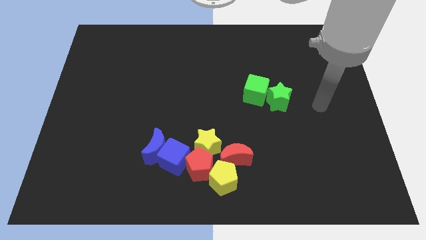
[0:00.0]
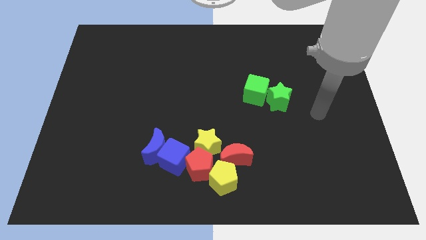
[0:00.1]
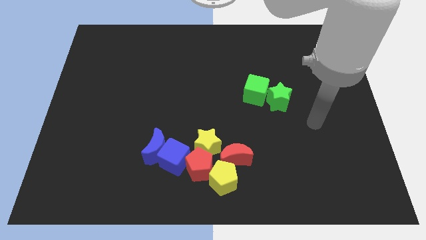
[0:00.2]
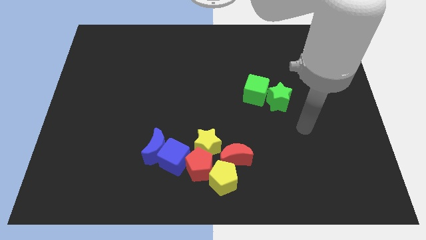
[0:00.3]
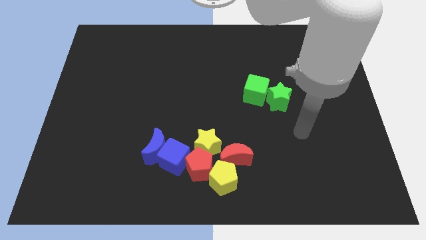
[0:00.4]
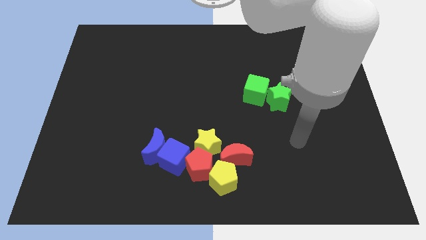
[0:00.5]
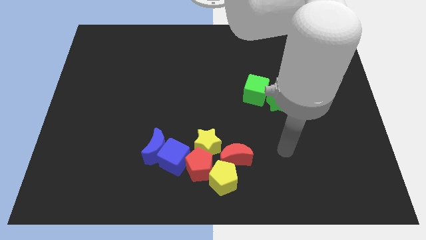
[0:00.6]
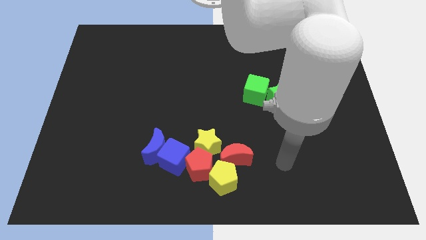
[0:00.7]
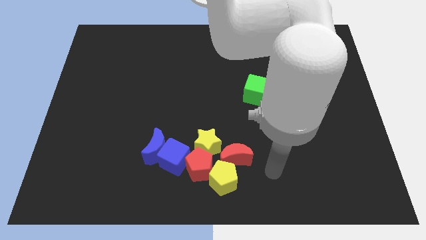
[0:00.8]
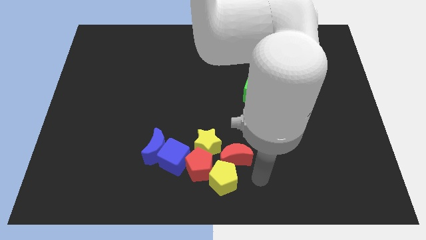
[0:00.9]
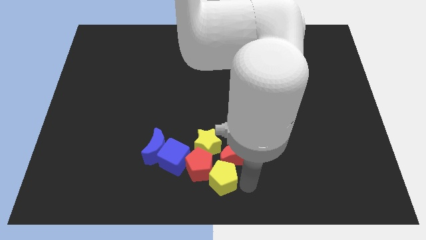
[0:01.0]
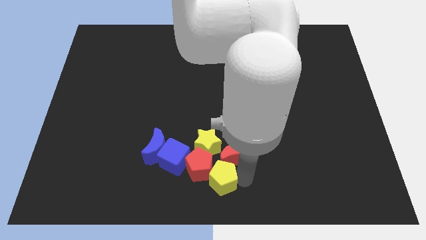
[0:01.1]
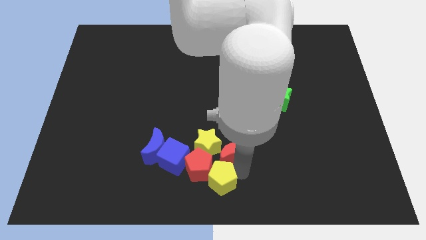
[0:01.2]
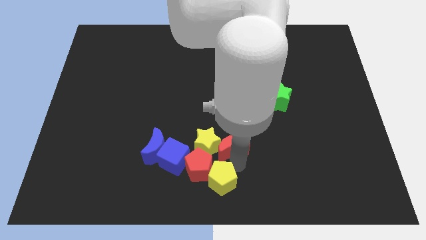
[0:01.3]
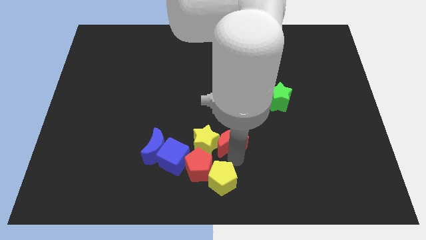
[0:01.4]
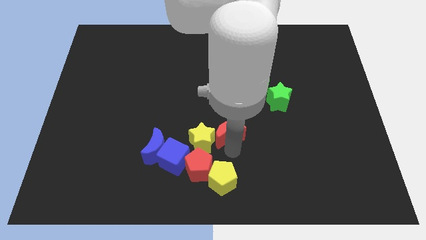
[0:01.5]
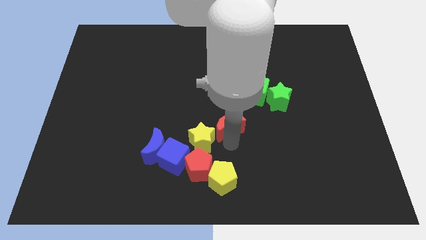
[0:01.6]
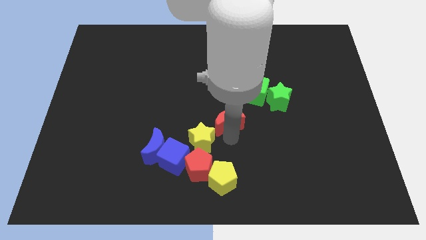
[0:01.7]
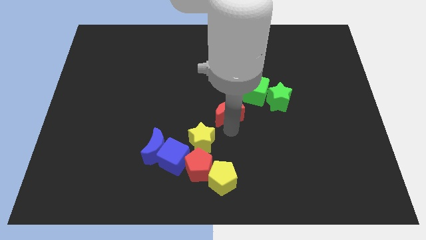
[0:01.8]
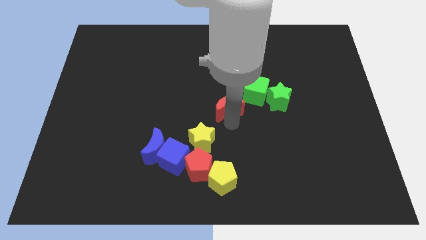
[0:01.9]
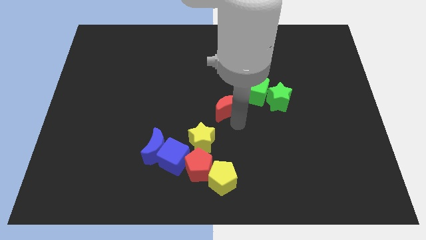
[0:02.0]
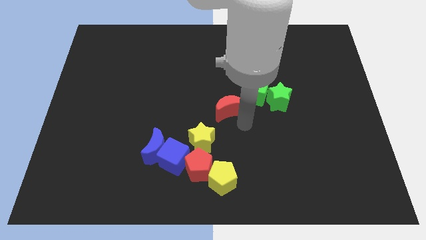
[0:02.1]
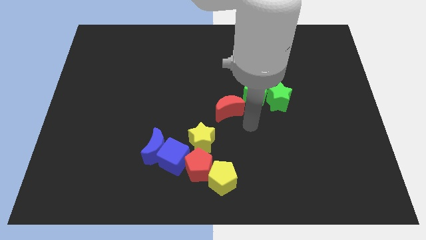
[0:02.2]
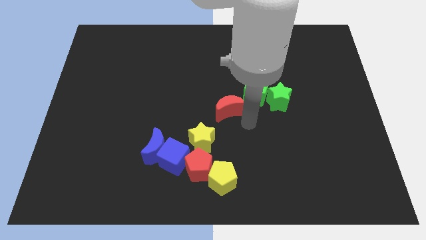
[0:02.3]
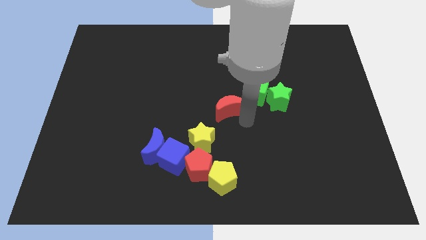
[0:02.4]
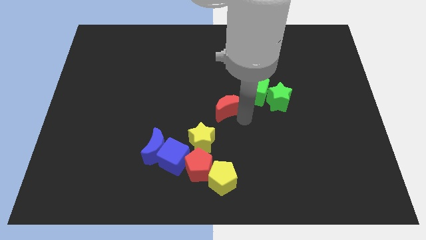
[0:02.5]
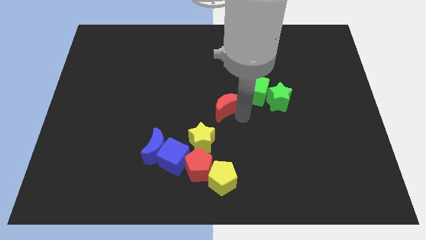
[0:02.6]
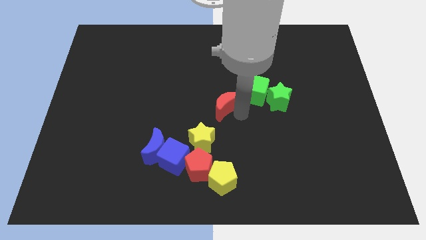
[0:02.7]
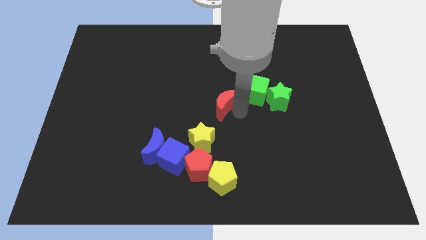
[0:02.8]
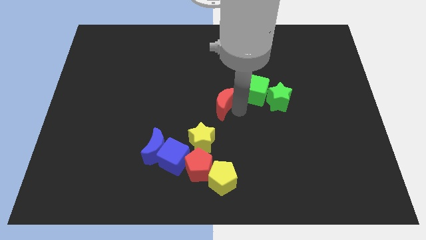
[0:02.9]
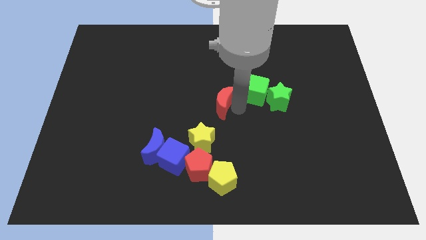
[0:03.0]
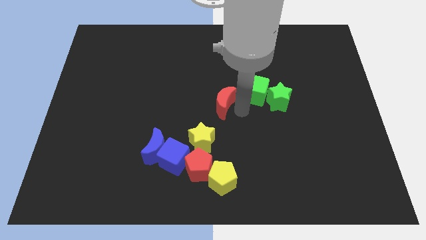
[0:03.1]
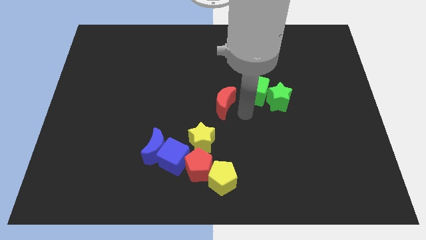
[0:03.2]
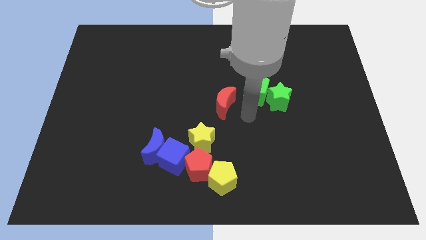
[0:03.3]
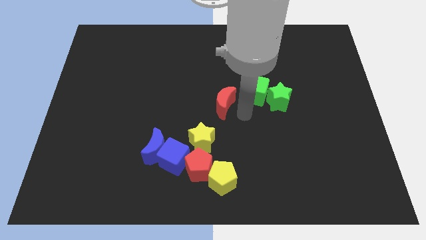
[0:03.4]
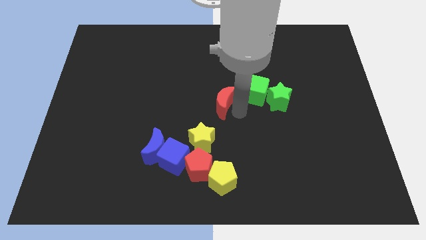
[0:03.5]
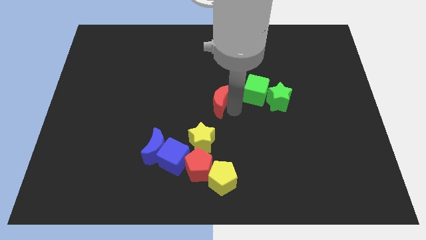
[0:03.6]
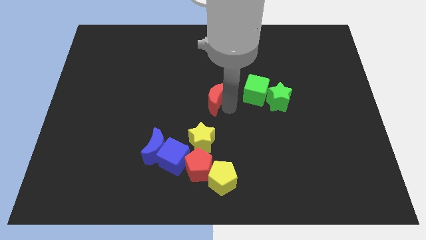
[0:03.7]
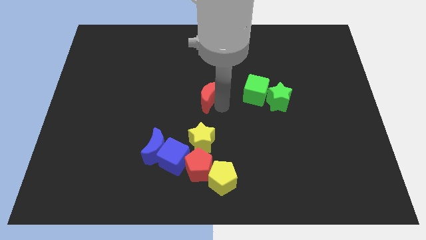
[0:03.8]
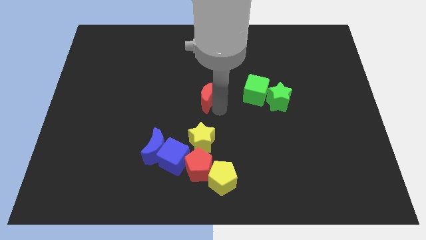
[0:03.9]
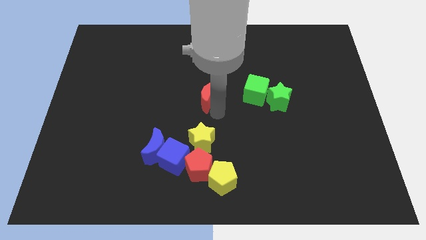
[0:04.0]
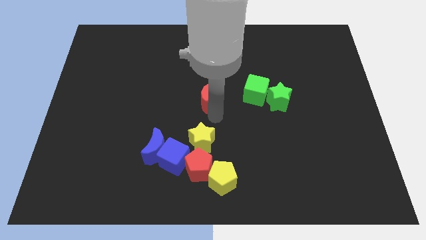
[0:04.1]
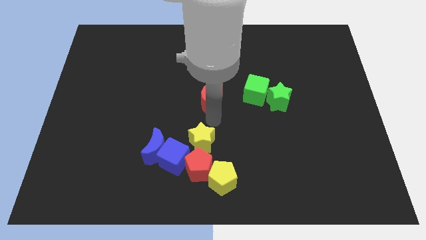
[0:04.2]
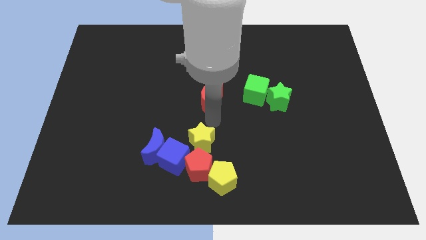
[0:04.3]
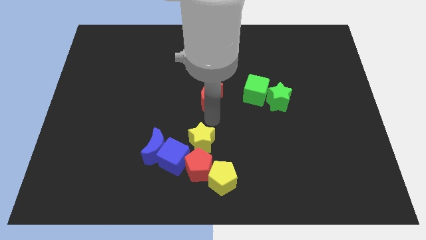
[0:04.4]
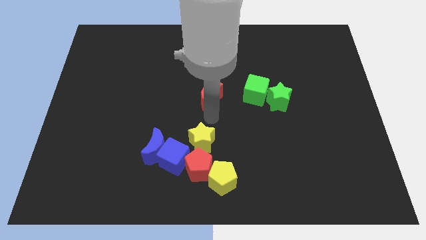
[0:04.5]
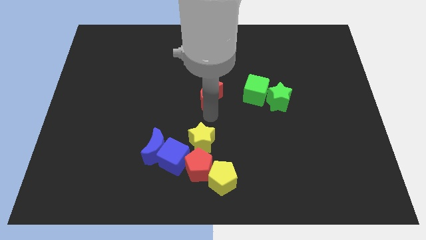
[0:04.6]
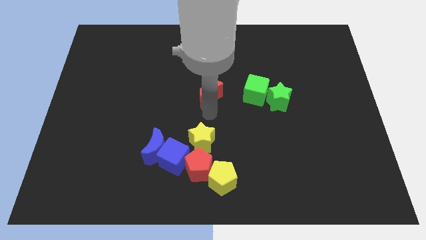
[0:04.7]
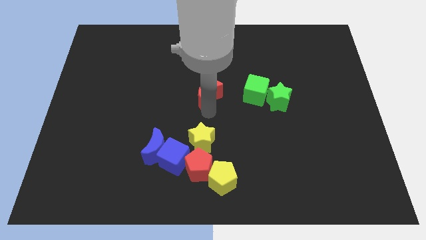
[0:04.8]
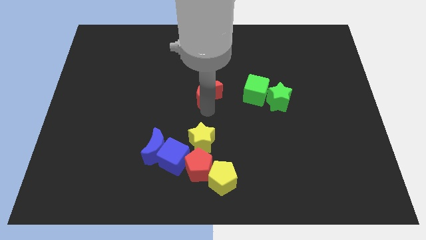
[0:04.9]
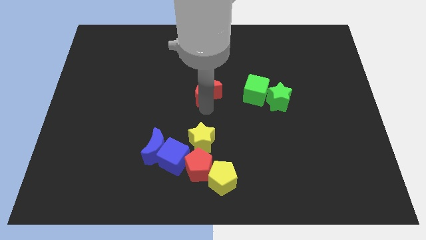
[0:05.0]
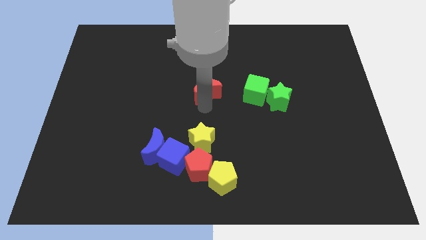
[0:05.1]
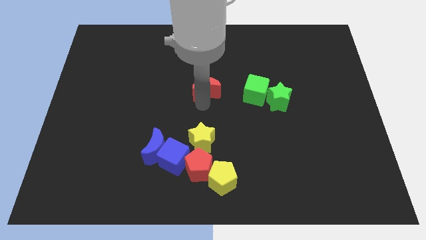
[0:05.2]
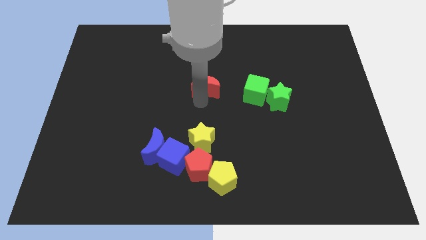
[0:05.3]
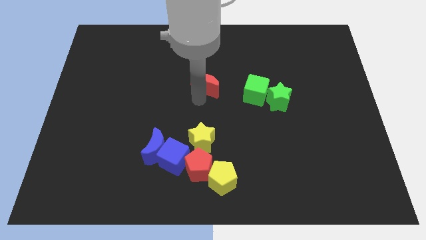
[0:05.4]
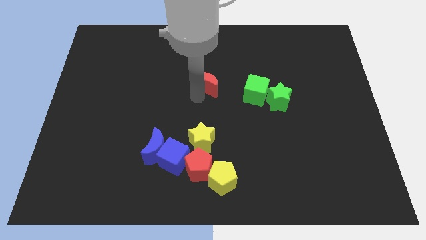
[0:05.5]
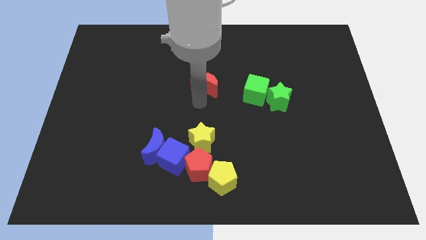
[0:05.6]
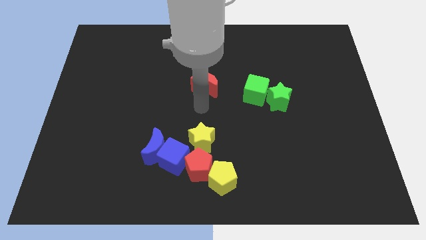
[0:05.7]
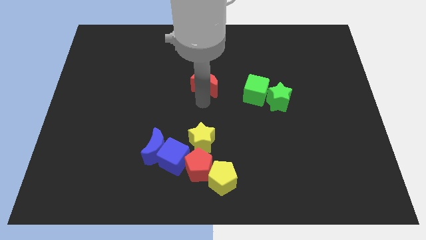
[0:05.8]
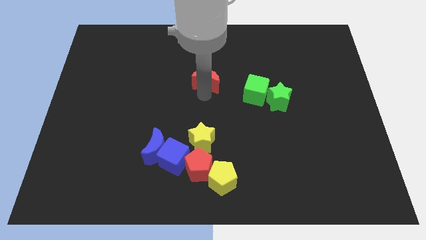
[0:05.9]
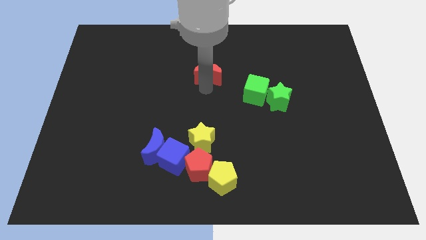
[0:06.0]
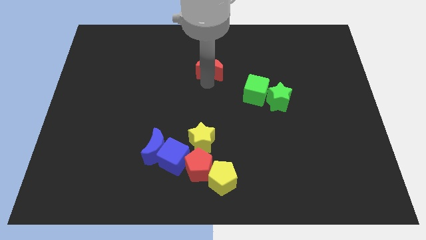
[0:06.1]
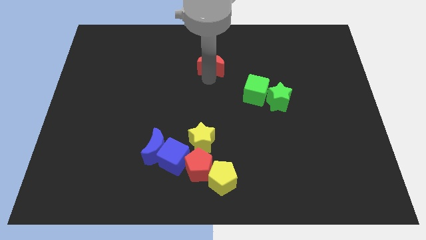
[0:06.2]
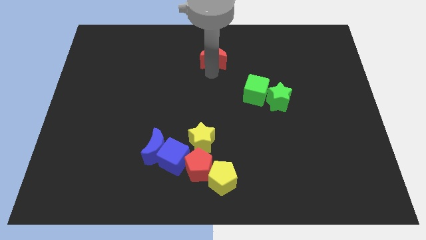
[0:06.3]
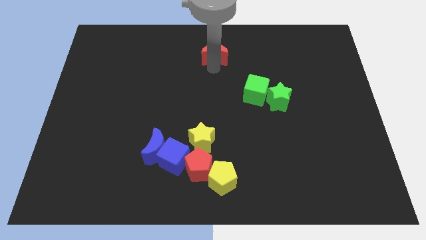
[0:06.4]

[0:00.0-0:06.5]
slide the red moon to the top
